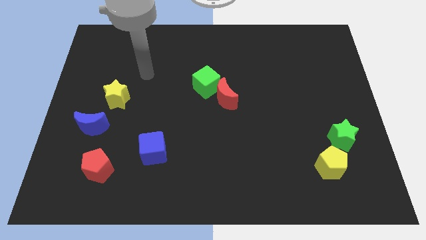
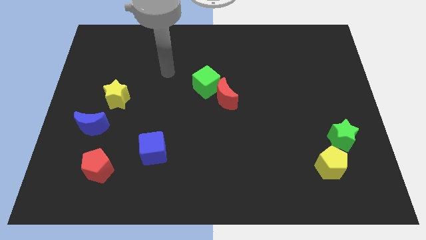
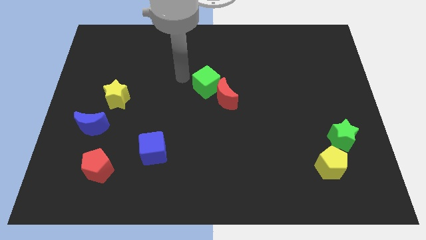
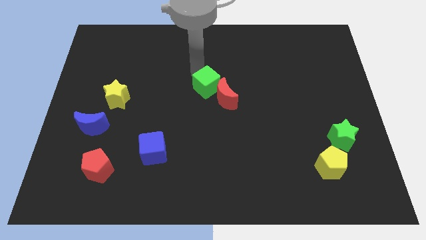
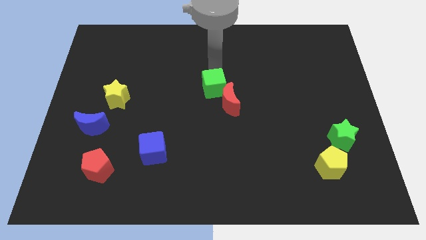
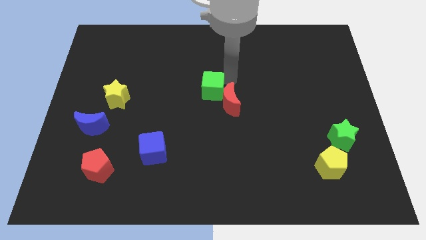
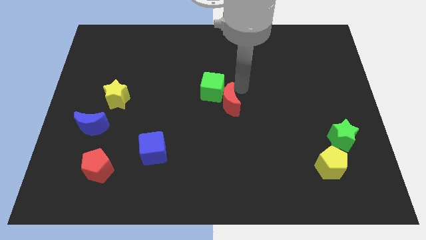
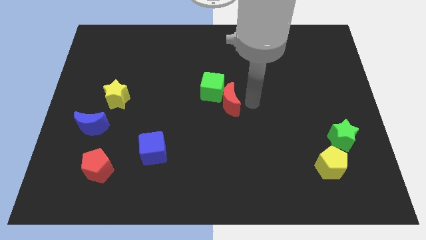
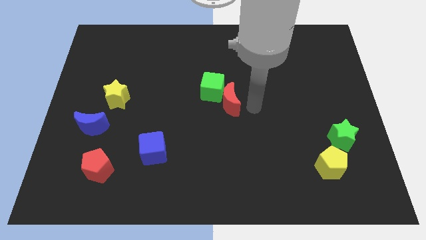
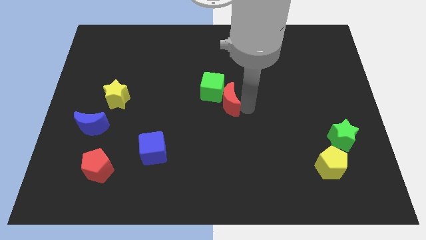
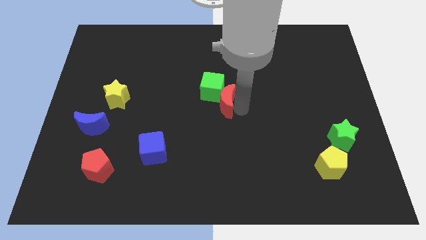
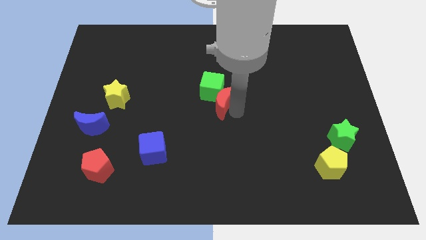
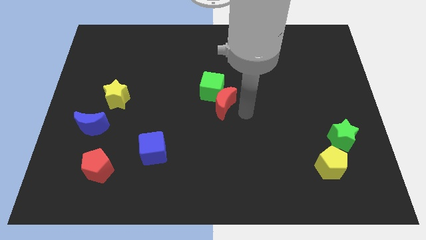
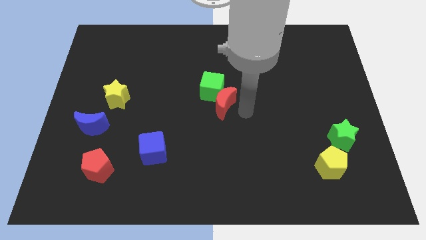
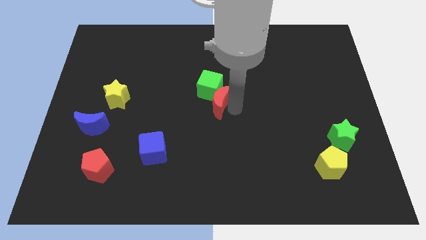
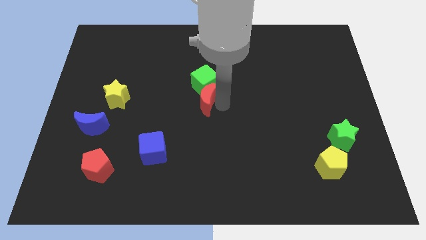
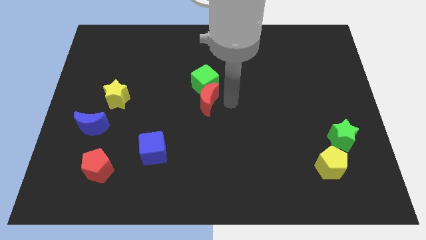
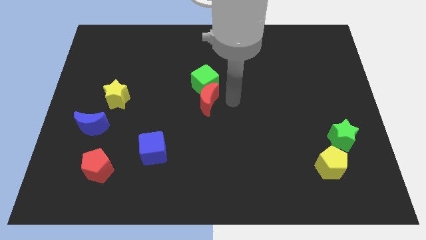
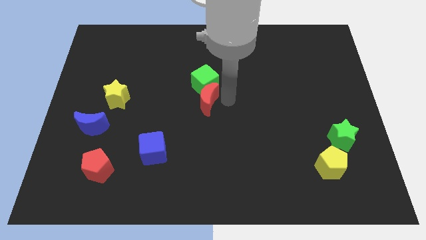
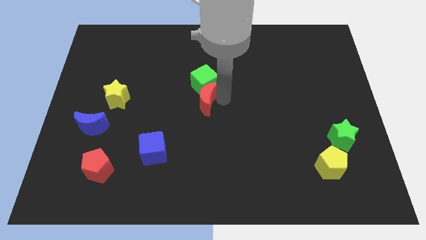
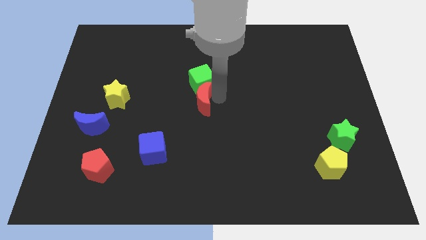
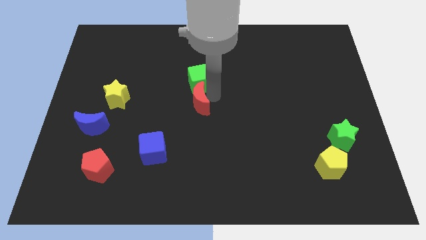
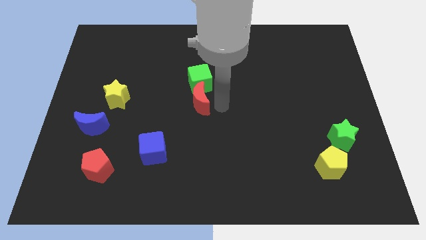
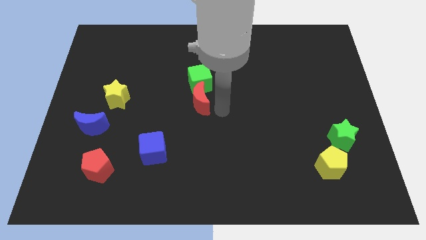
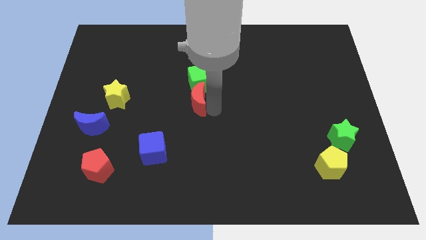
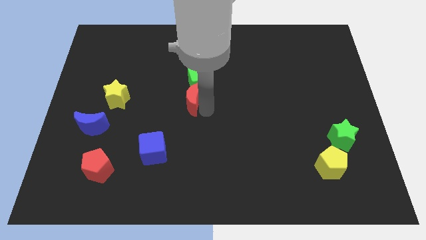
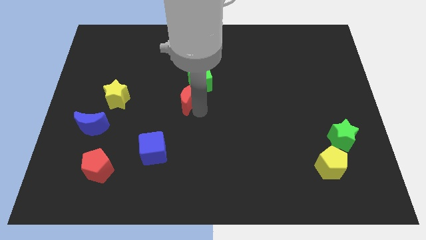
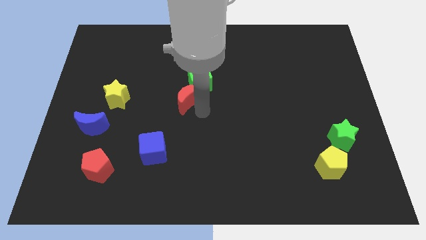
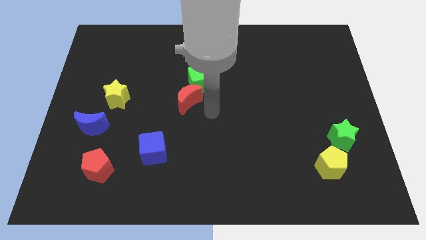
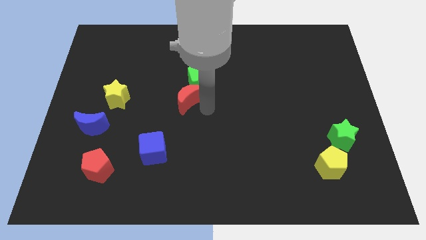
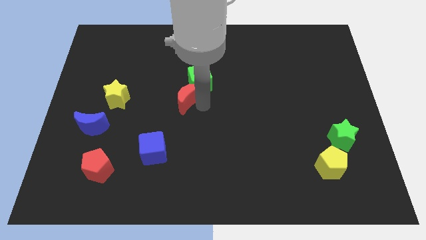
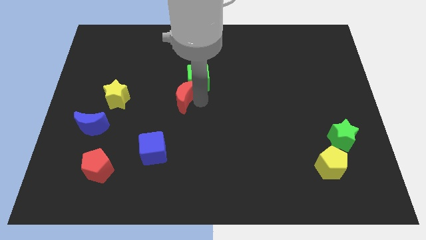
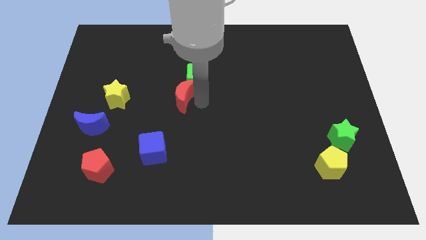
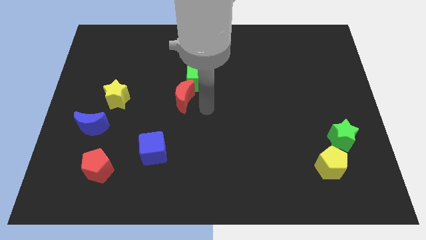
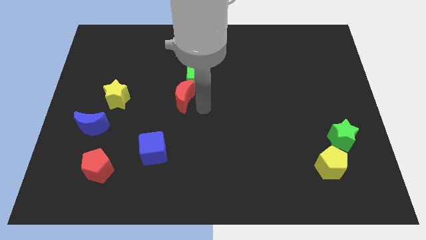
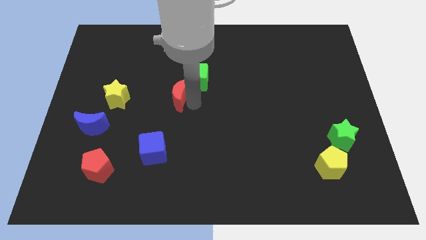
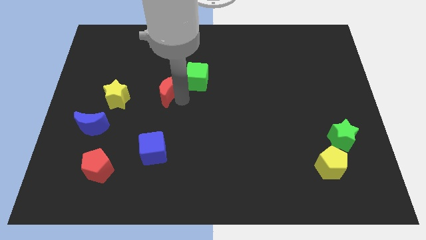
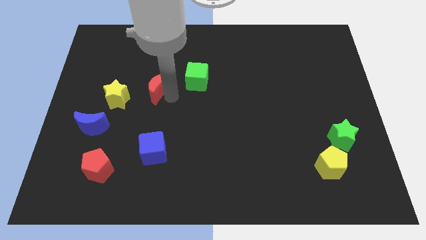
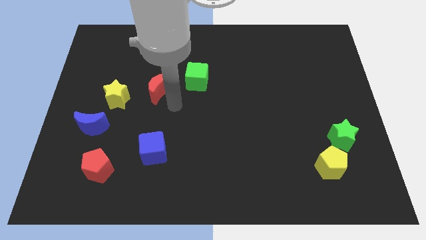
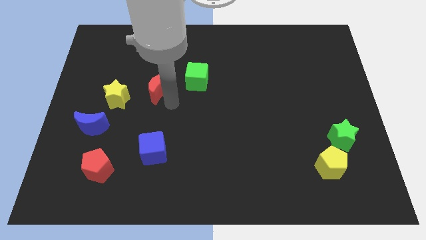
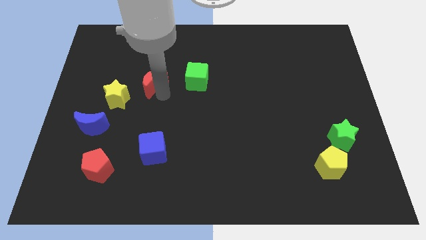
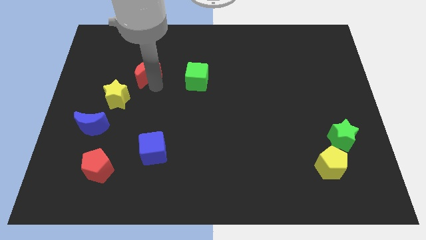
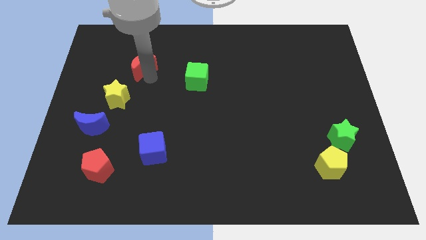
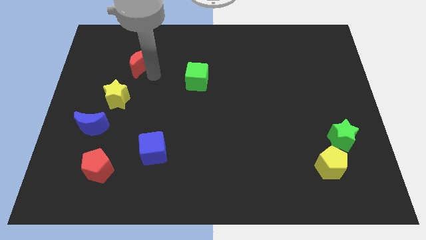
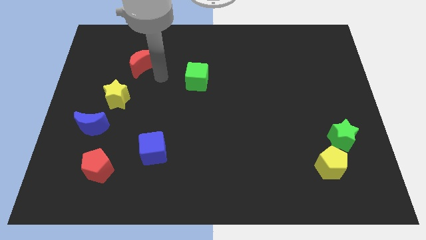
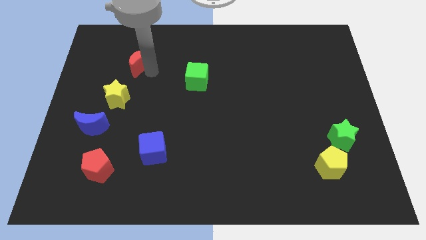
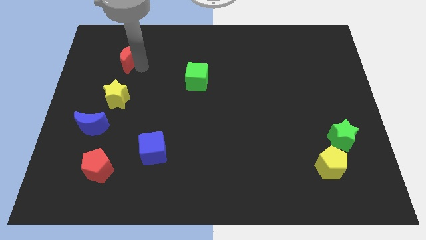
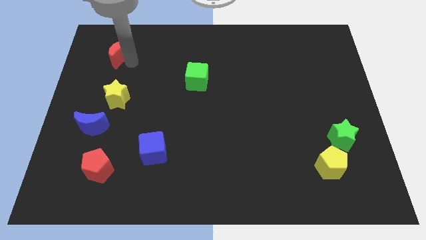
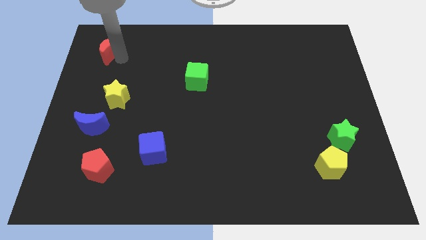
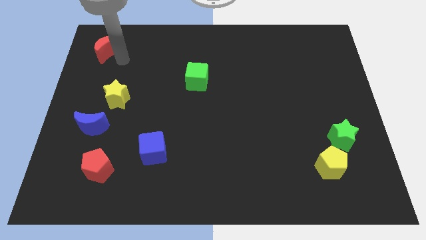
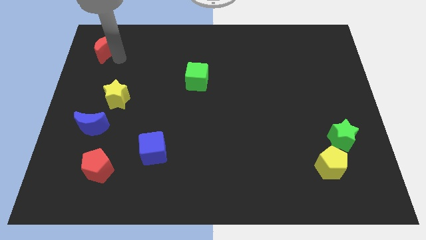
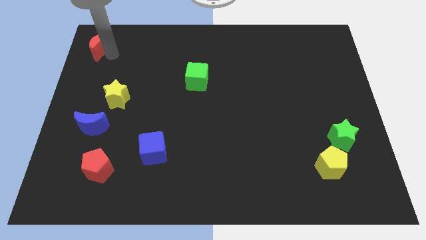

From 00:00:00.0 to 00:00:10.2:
slide the red moon to the top left of the board
